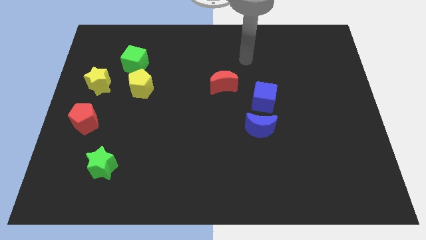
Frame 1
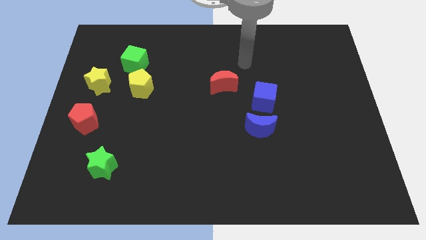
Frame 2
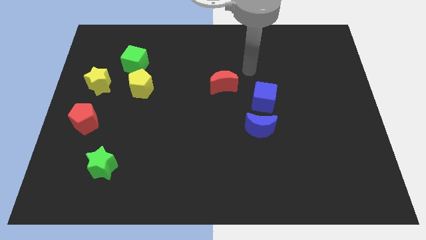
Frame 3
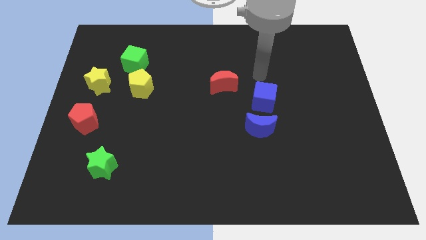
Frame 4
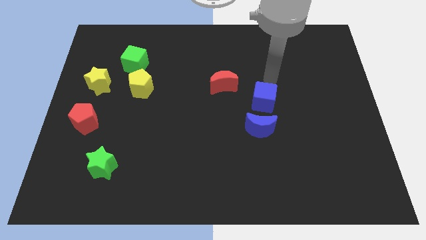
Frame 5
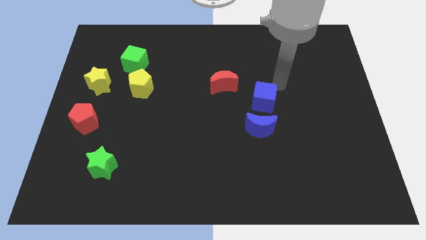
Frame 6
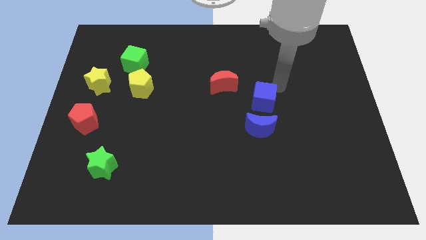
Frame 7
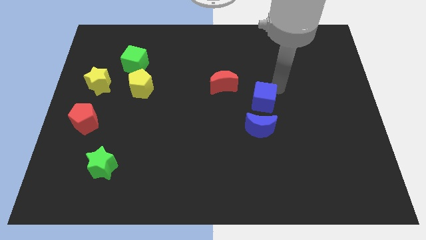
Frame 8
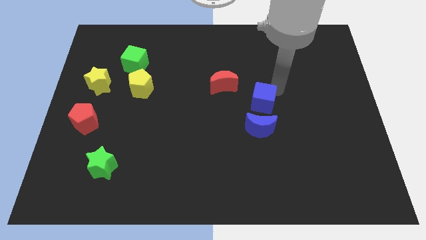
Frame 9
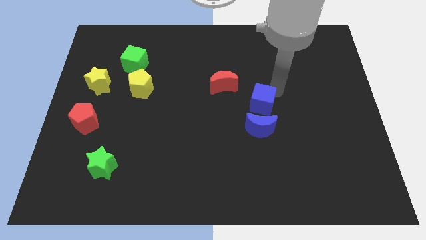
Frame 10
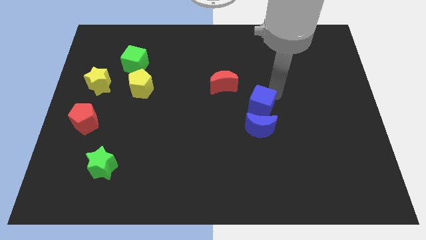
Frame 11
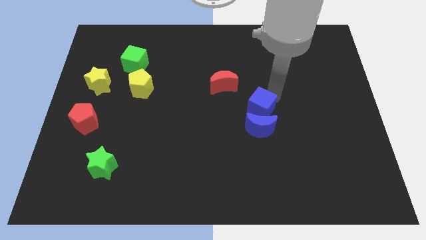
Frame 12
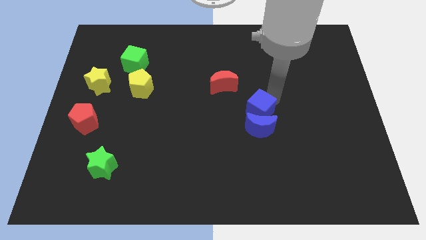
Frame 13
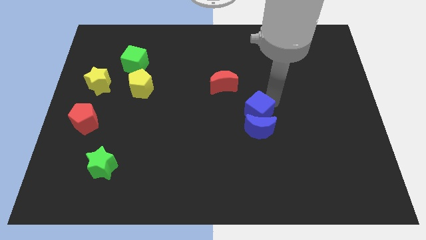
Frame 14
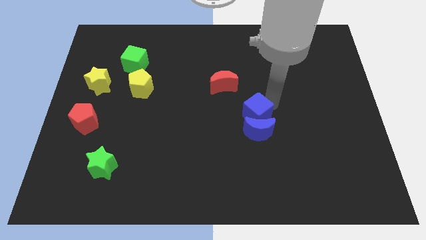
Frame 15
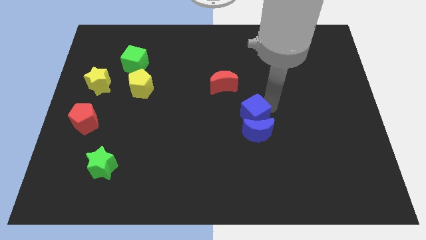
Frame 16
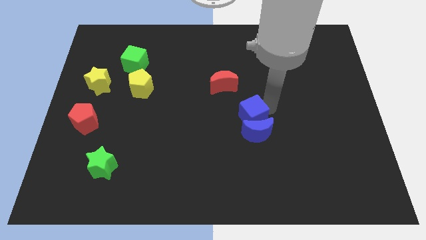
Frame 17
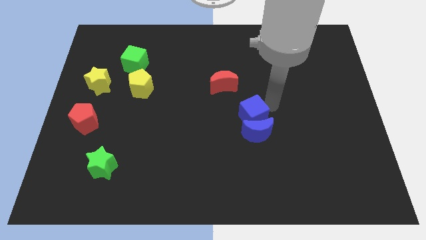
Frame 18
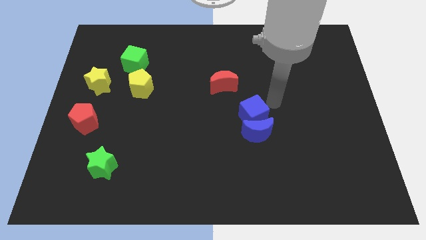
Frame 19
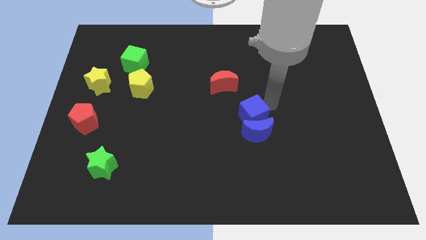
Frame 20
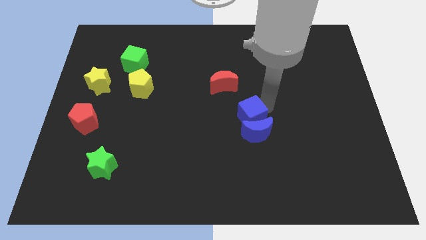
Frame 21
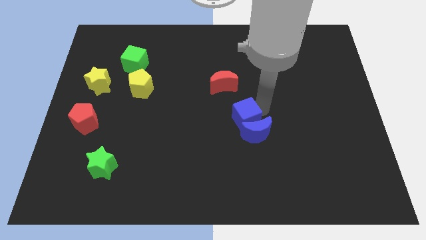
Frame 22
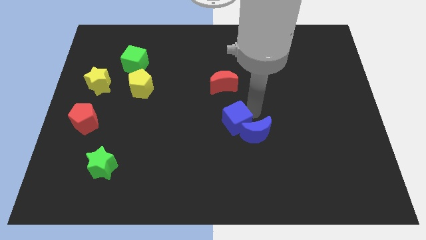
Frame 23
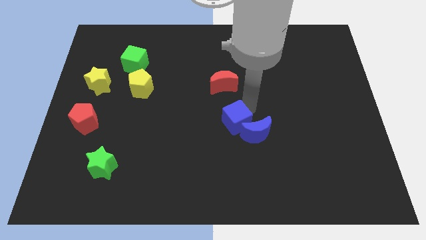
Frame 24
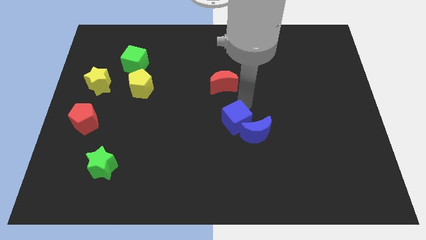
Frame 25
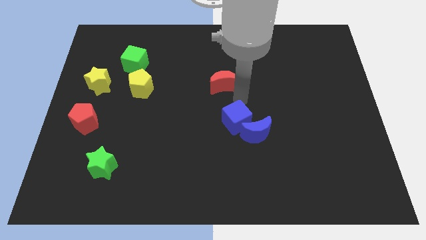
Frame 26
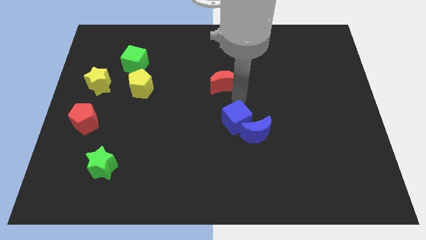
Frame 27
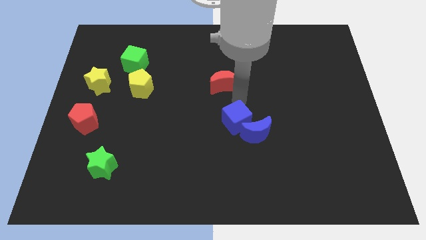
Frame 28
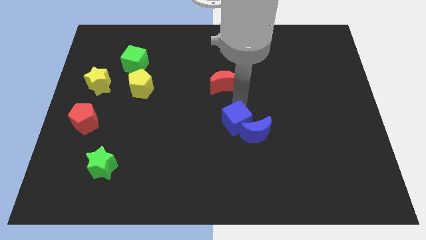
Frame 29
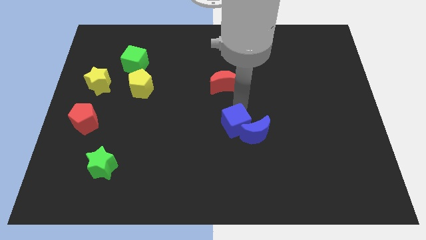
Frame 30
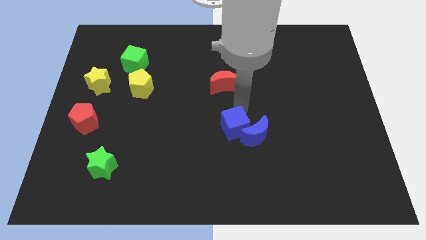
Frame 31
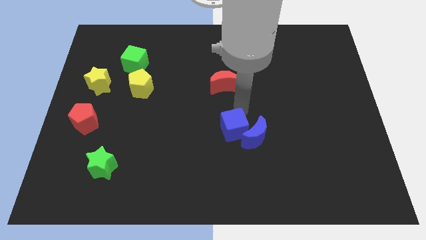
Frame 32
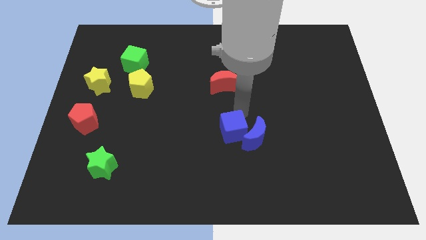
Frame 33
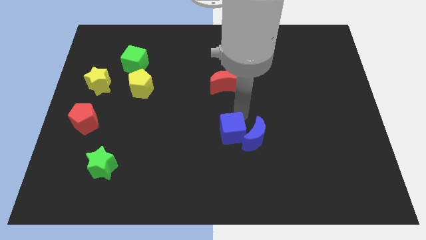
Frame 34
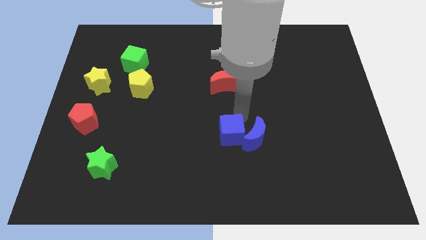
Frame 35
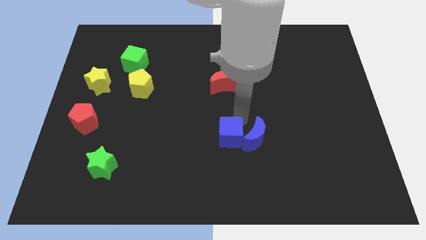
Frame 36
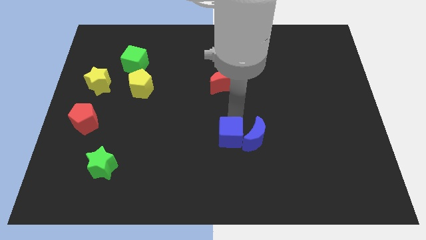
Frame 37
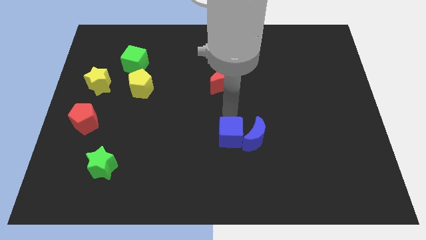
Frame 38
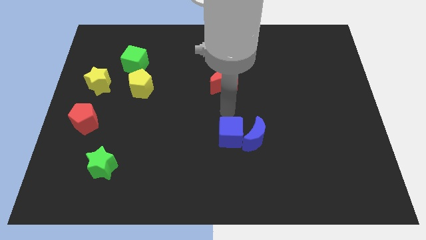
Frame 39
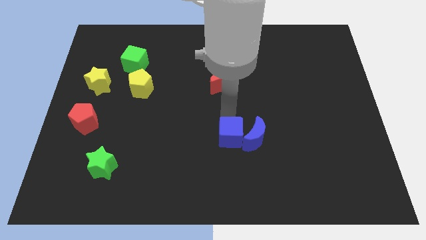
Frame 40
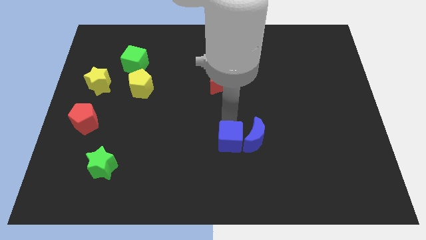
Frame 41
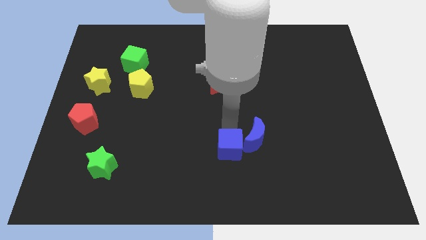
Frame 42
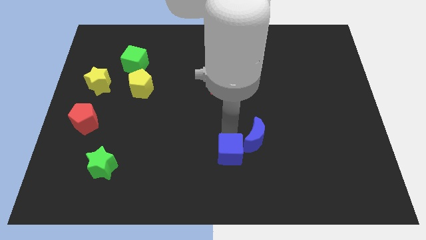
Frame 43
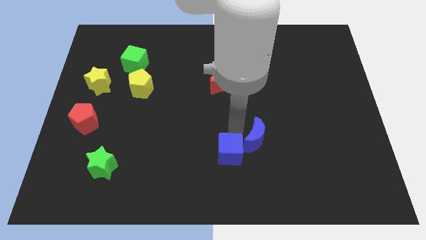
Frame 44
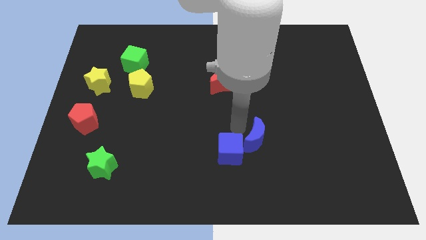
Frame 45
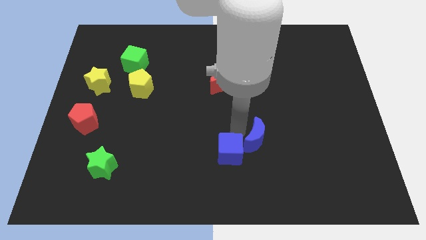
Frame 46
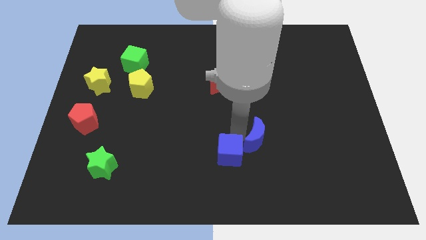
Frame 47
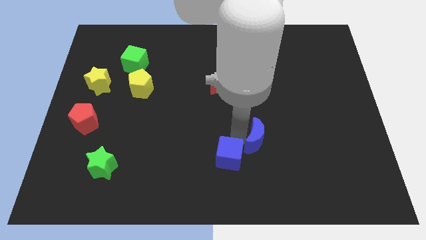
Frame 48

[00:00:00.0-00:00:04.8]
push the blue cube to the bottom

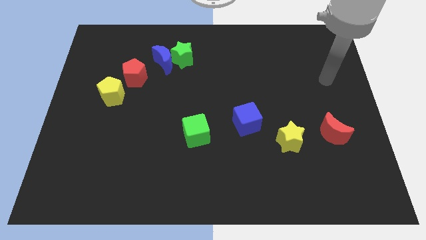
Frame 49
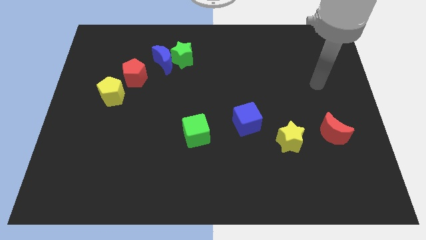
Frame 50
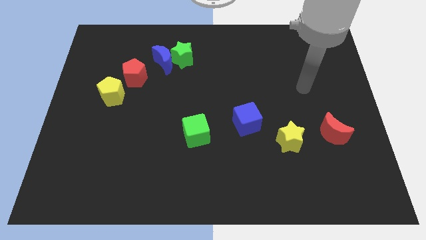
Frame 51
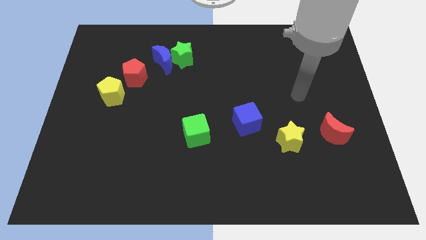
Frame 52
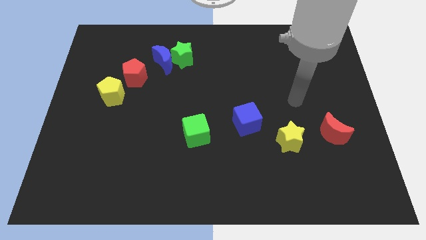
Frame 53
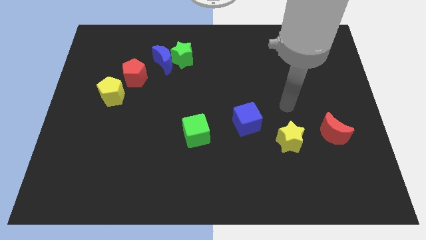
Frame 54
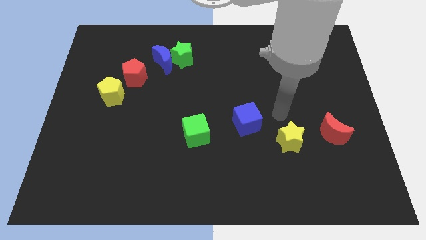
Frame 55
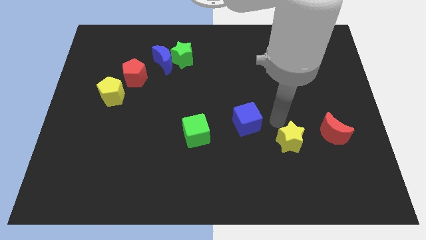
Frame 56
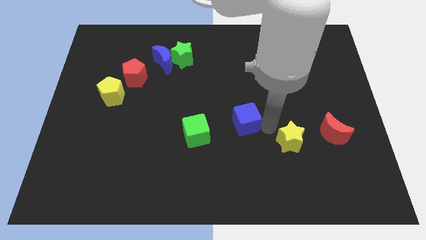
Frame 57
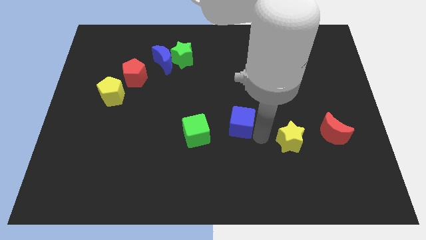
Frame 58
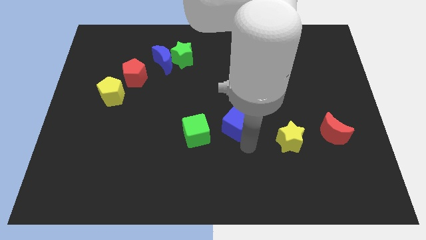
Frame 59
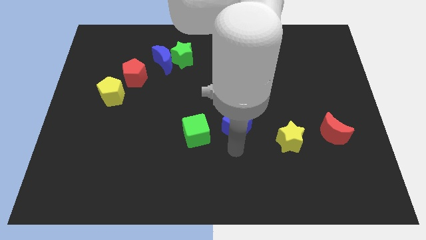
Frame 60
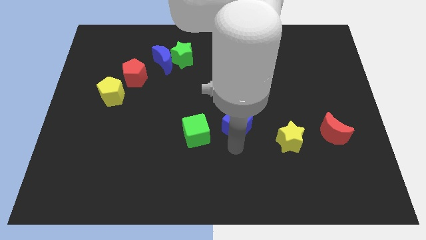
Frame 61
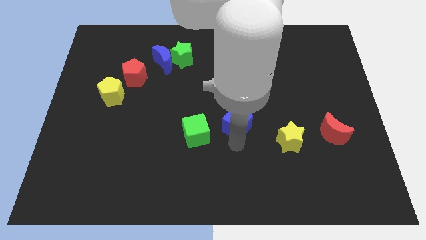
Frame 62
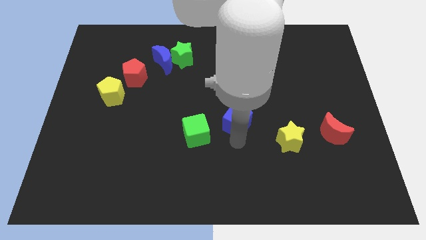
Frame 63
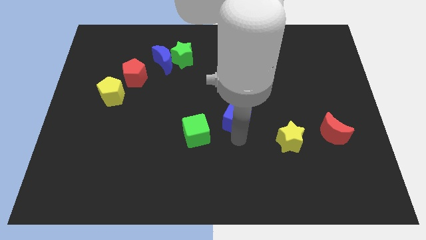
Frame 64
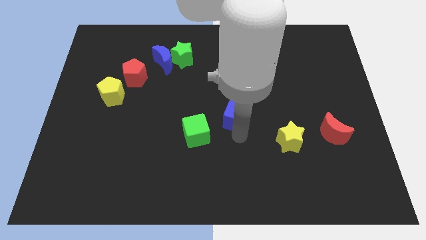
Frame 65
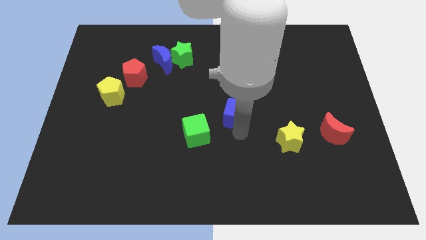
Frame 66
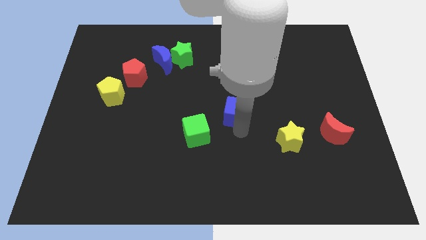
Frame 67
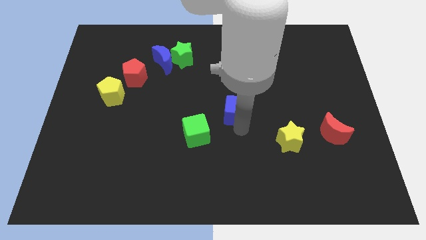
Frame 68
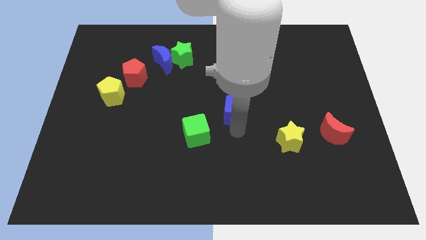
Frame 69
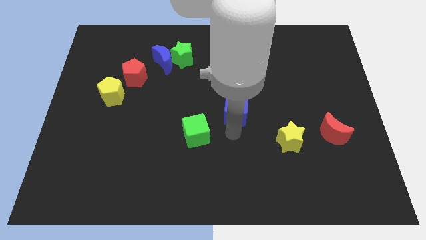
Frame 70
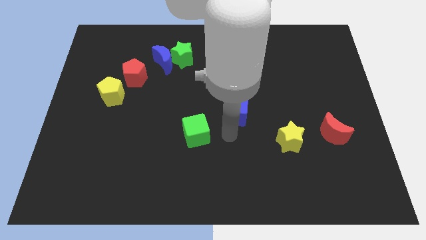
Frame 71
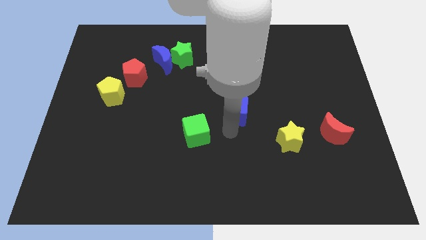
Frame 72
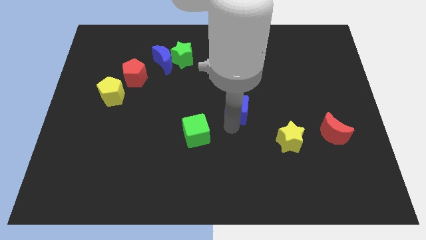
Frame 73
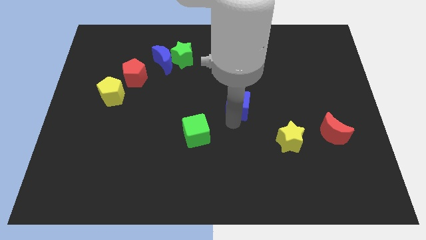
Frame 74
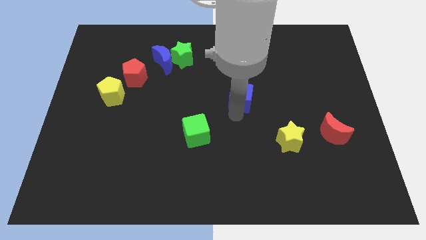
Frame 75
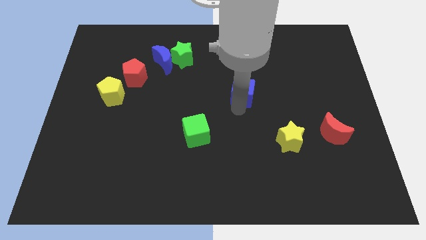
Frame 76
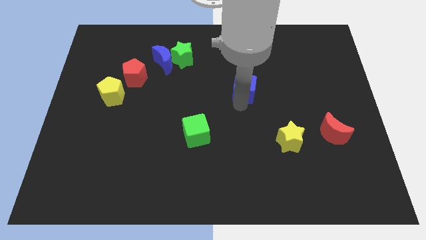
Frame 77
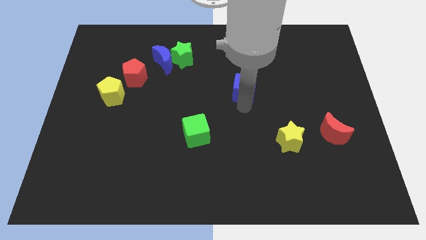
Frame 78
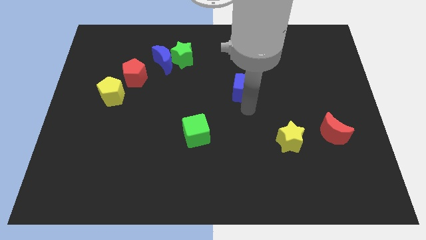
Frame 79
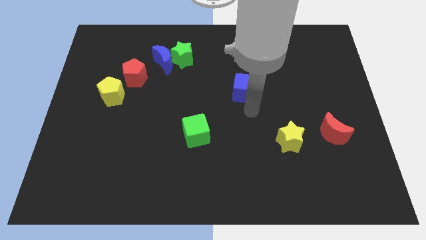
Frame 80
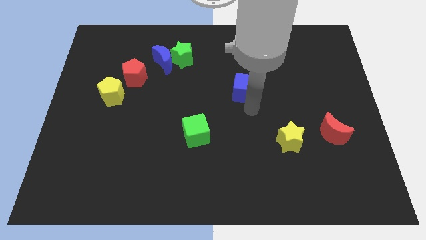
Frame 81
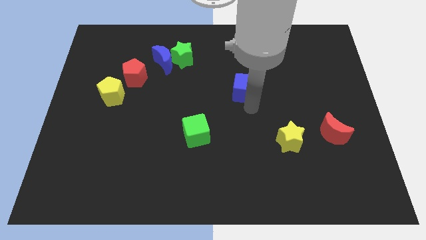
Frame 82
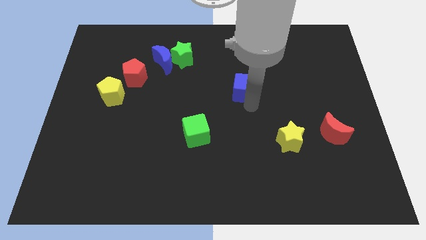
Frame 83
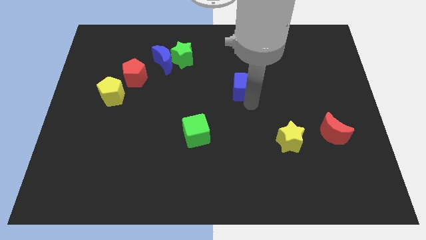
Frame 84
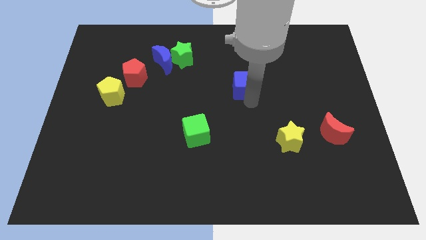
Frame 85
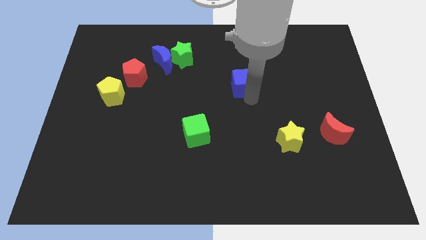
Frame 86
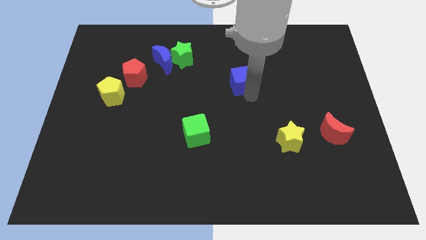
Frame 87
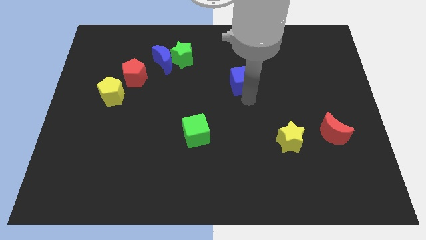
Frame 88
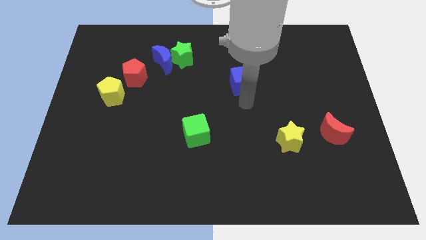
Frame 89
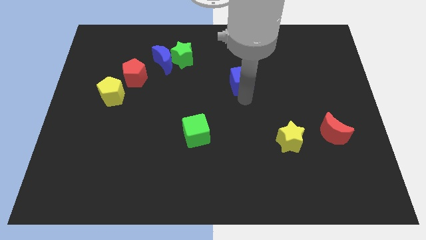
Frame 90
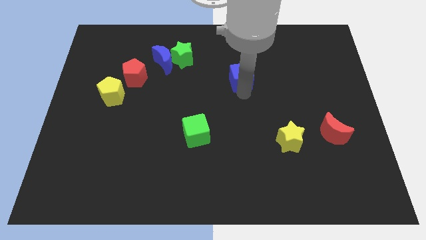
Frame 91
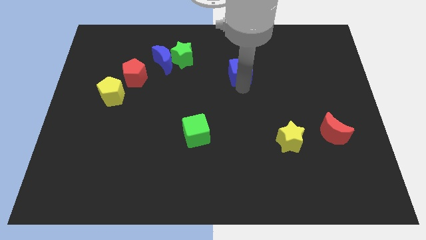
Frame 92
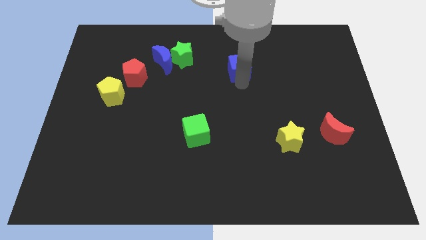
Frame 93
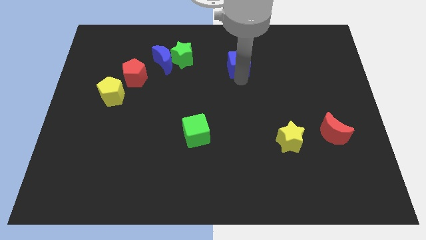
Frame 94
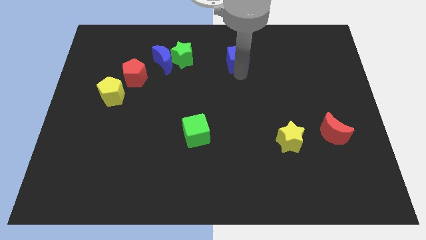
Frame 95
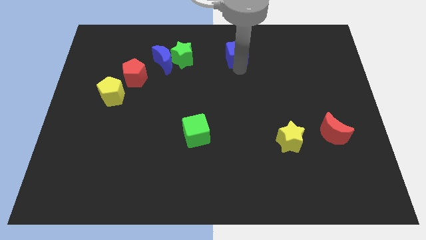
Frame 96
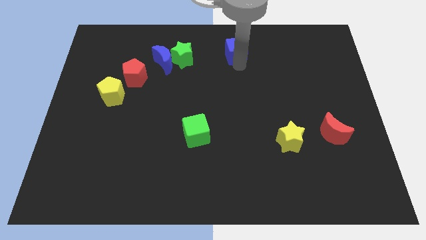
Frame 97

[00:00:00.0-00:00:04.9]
push the blue cube to the top side
